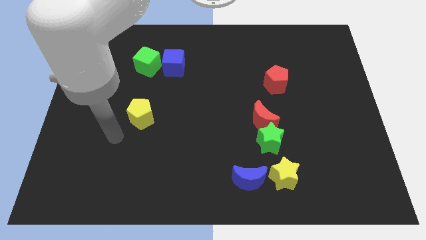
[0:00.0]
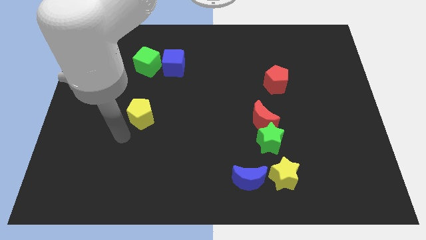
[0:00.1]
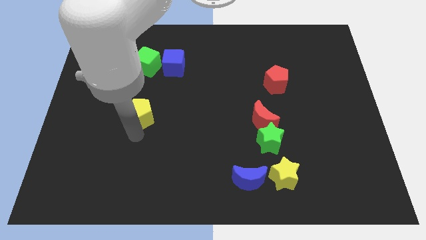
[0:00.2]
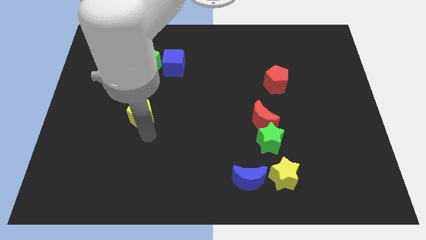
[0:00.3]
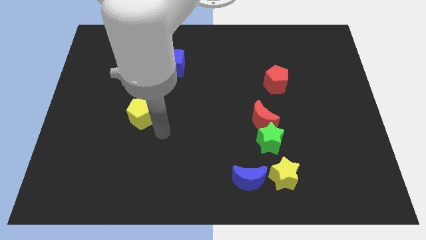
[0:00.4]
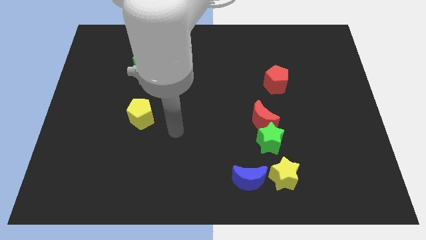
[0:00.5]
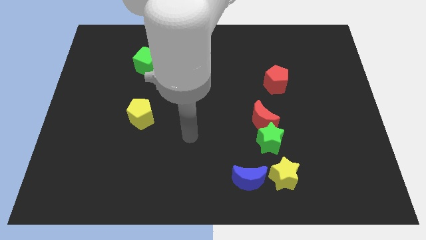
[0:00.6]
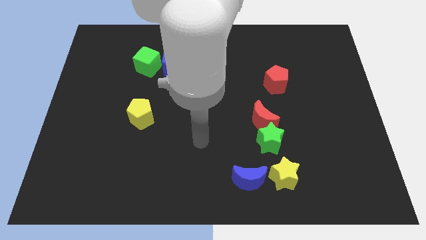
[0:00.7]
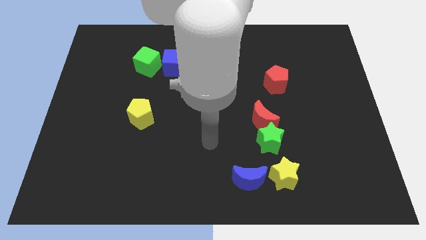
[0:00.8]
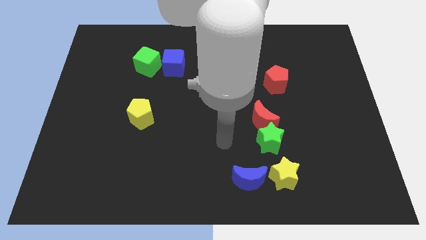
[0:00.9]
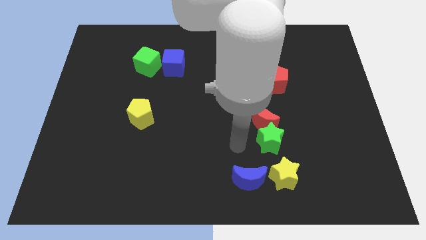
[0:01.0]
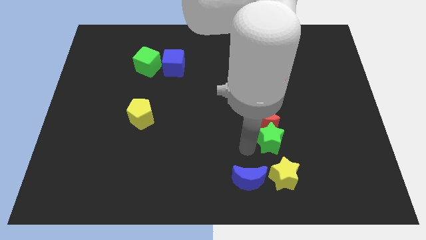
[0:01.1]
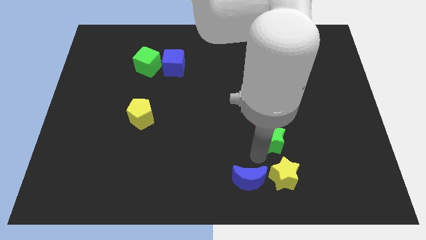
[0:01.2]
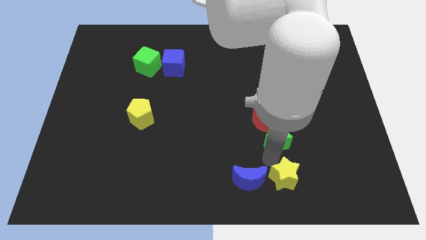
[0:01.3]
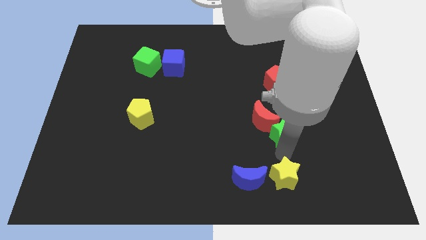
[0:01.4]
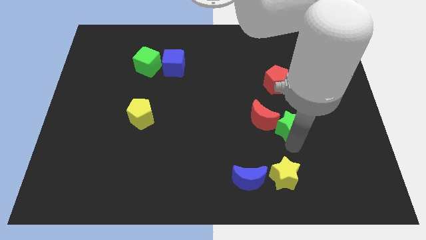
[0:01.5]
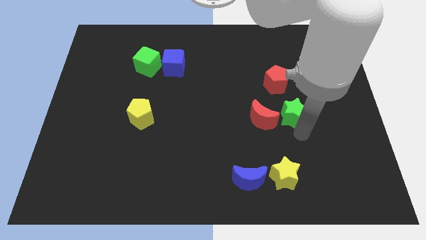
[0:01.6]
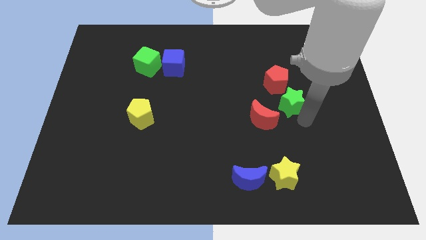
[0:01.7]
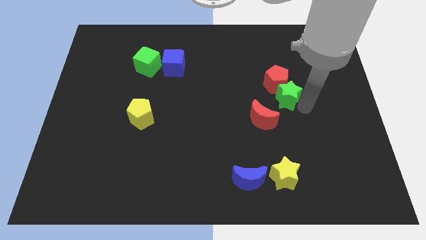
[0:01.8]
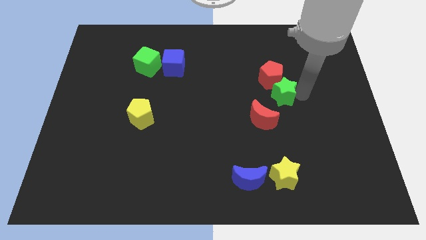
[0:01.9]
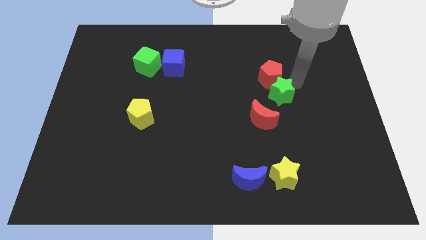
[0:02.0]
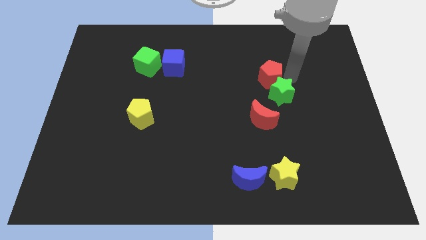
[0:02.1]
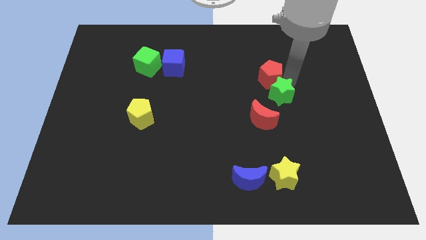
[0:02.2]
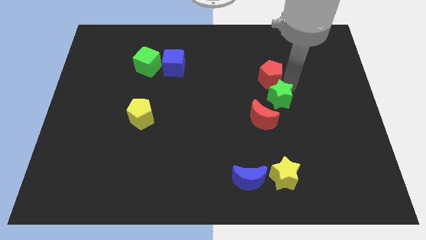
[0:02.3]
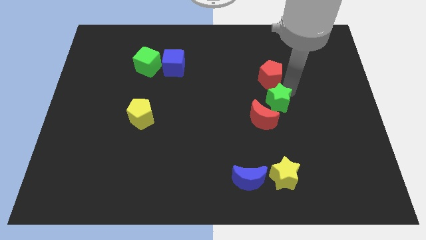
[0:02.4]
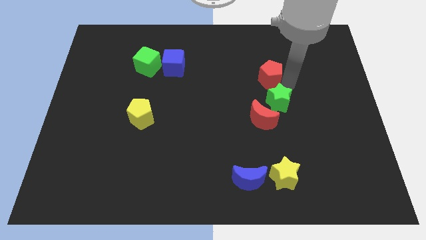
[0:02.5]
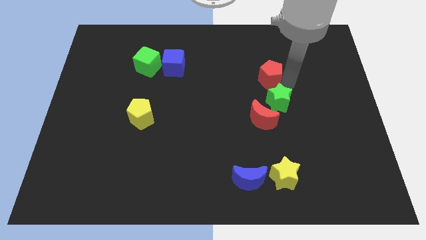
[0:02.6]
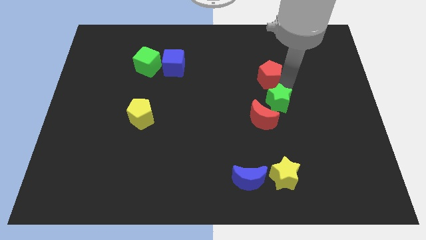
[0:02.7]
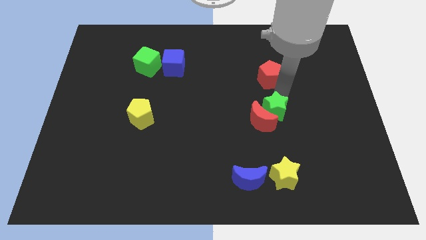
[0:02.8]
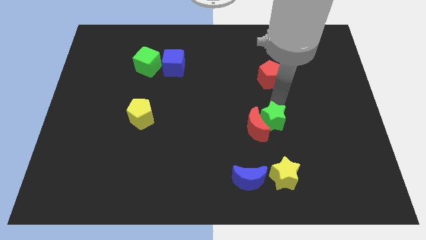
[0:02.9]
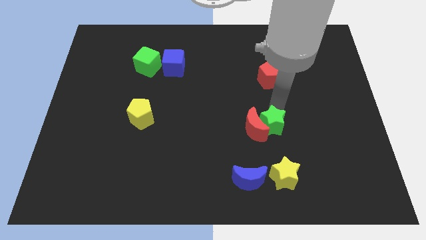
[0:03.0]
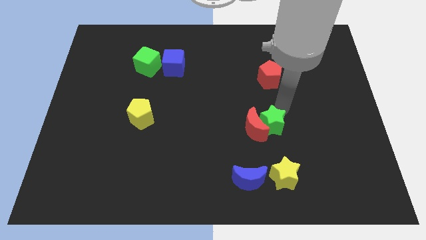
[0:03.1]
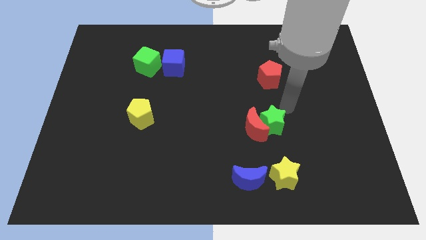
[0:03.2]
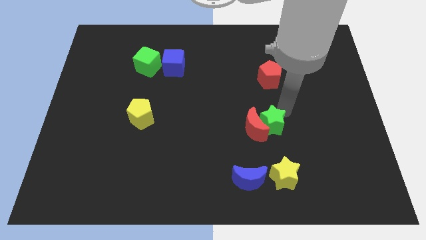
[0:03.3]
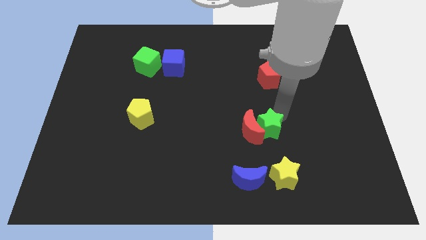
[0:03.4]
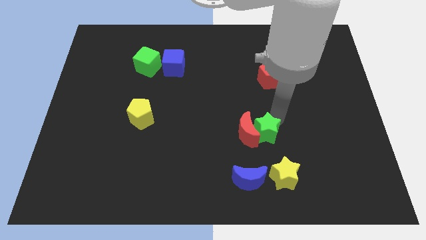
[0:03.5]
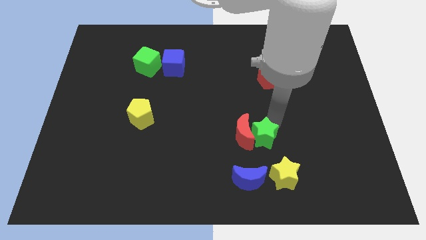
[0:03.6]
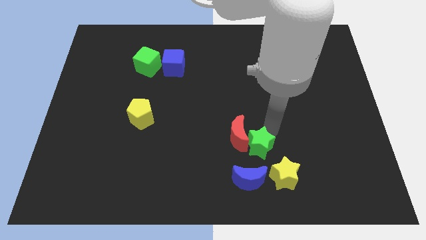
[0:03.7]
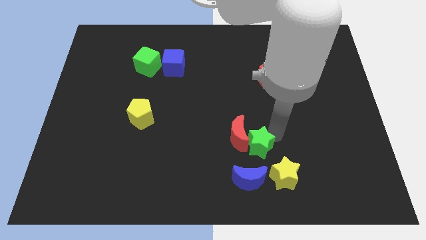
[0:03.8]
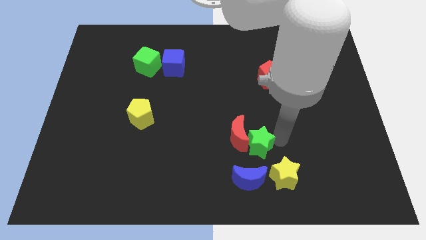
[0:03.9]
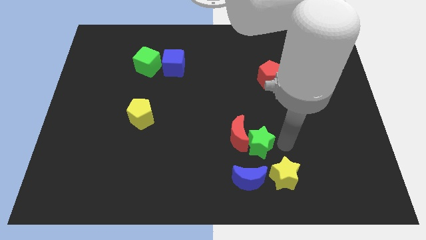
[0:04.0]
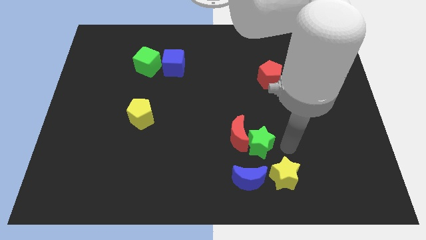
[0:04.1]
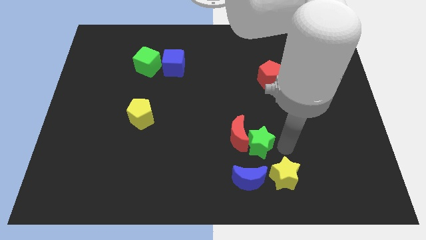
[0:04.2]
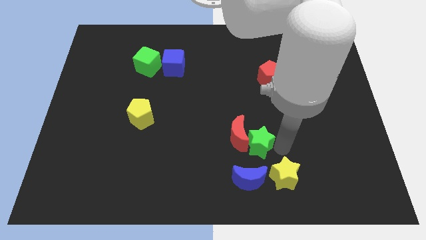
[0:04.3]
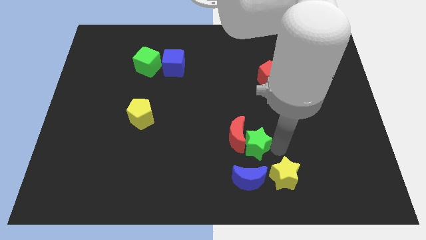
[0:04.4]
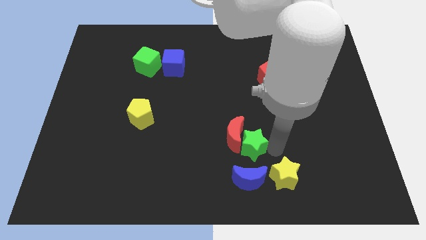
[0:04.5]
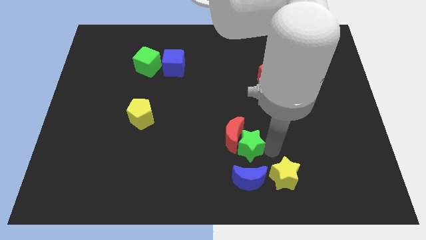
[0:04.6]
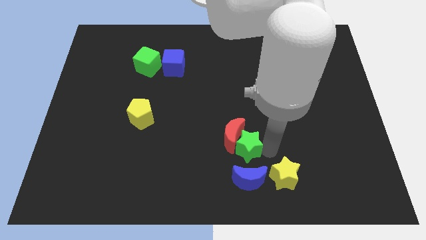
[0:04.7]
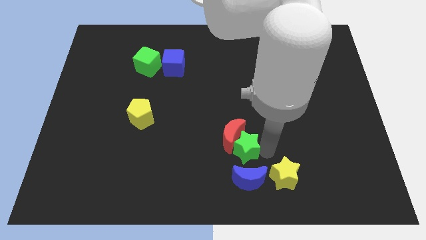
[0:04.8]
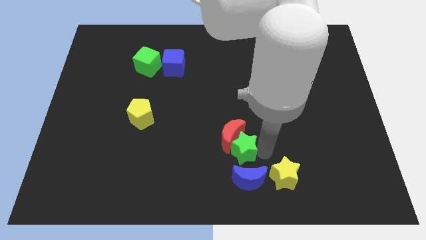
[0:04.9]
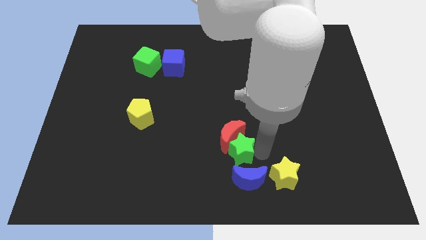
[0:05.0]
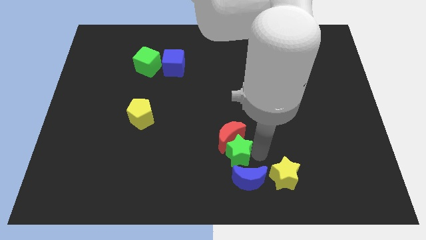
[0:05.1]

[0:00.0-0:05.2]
slide the green star left slightly

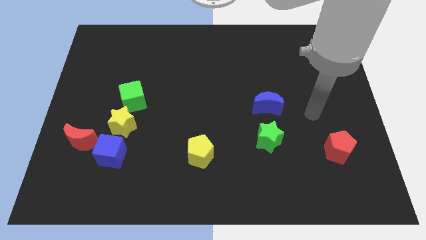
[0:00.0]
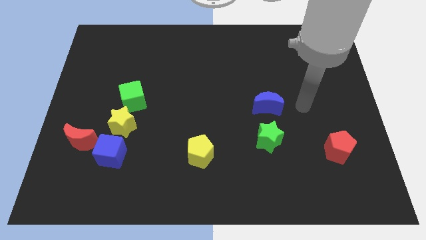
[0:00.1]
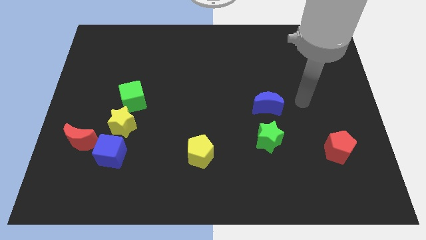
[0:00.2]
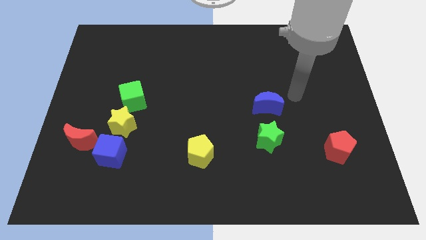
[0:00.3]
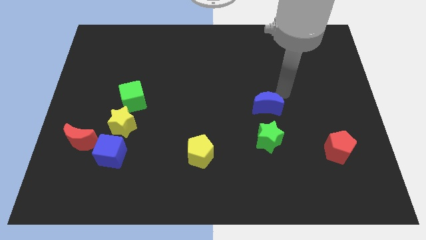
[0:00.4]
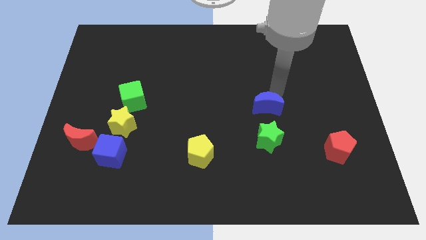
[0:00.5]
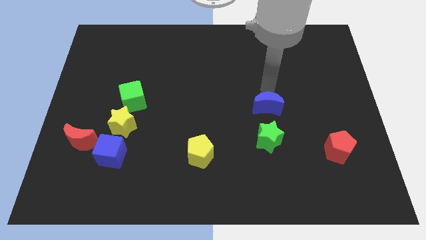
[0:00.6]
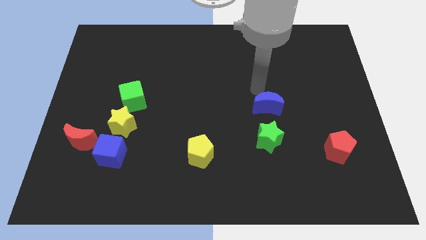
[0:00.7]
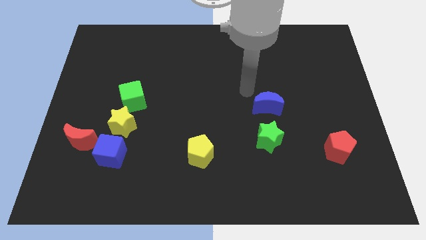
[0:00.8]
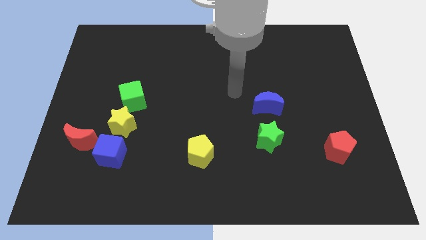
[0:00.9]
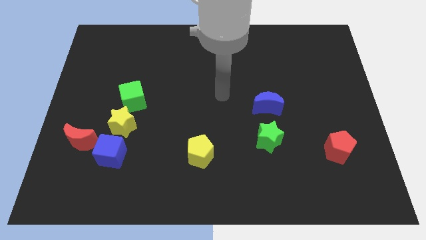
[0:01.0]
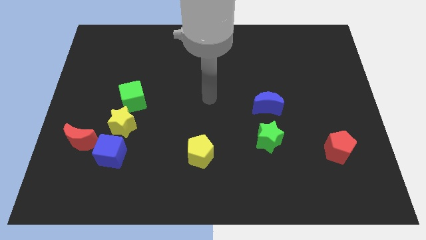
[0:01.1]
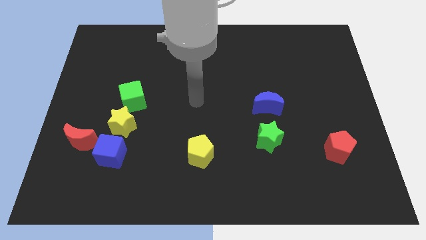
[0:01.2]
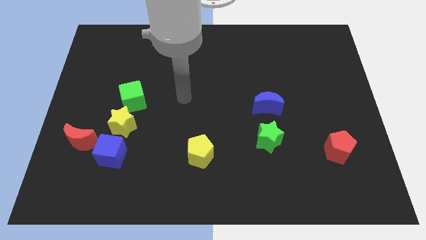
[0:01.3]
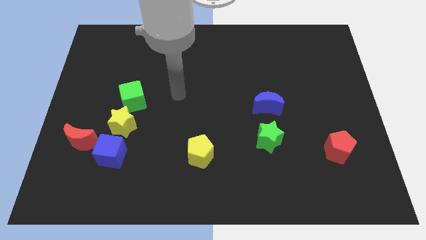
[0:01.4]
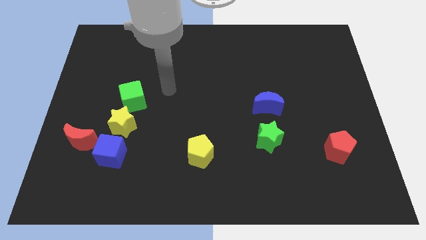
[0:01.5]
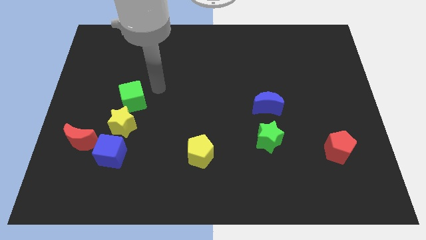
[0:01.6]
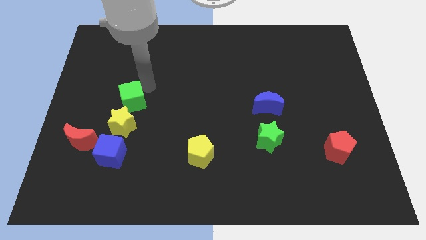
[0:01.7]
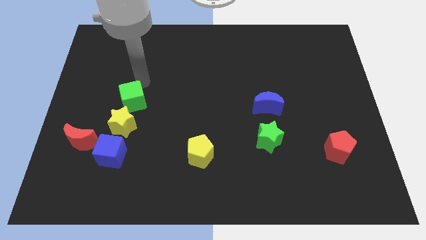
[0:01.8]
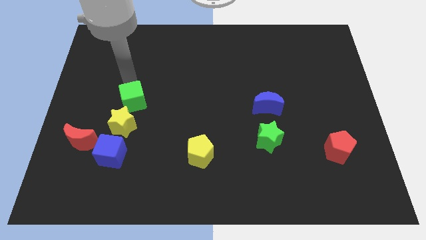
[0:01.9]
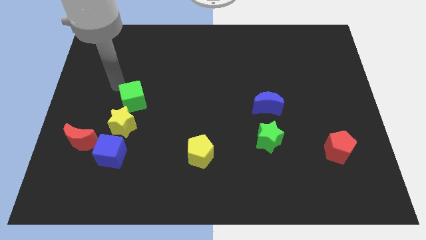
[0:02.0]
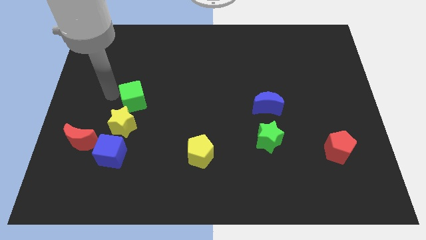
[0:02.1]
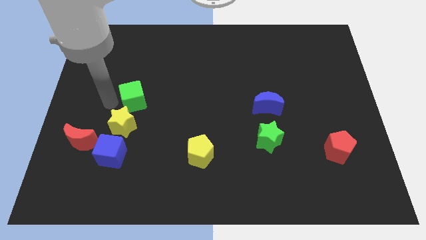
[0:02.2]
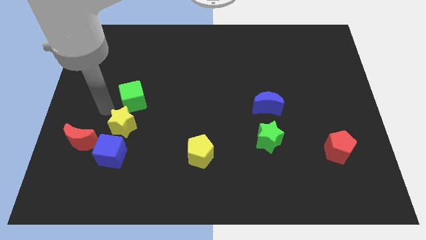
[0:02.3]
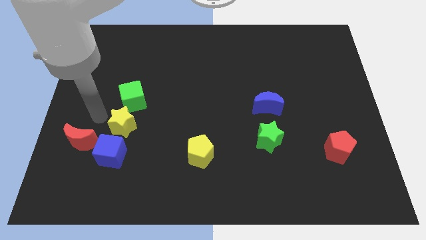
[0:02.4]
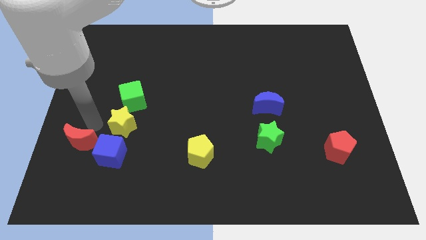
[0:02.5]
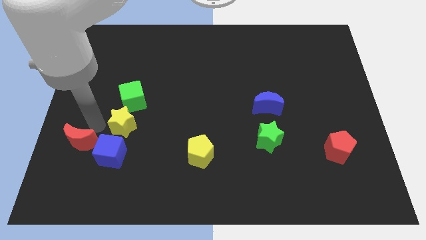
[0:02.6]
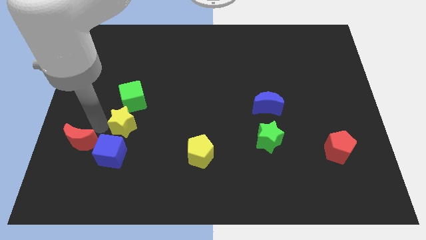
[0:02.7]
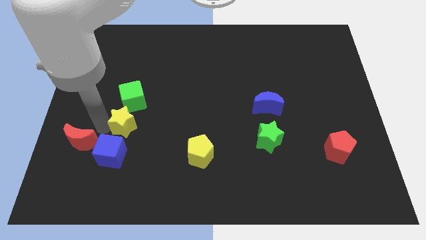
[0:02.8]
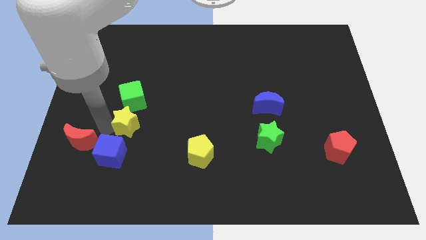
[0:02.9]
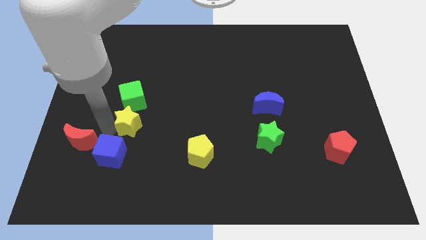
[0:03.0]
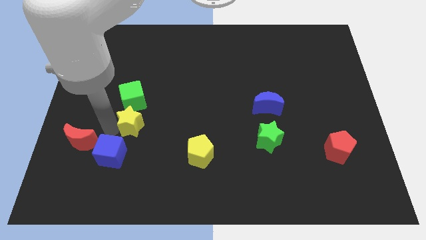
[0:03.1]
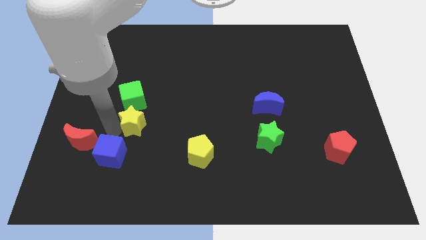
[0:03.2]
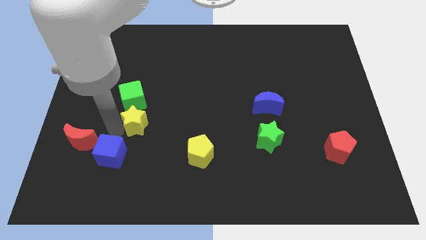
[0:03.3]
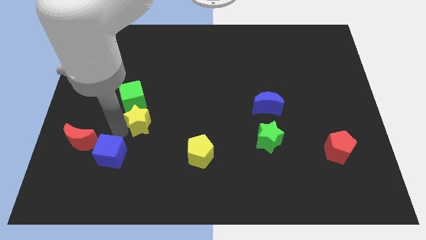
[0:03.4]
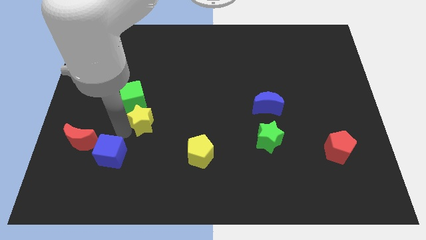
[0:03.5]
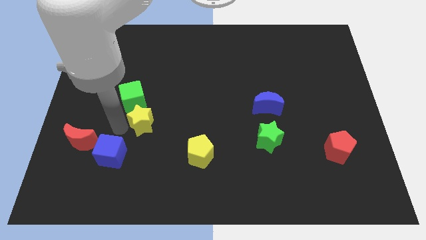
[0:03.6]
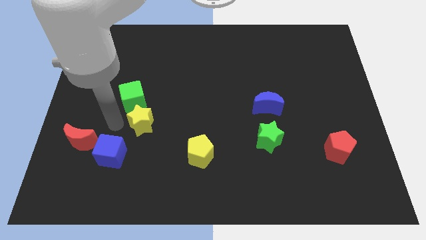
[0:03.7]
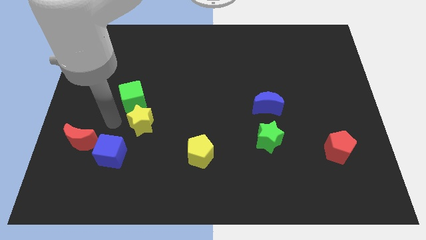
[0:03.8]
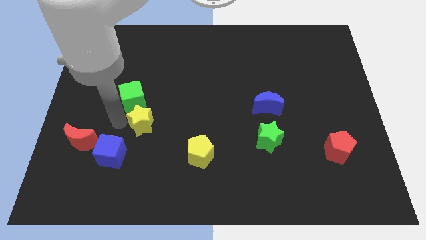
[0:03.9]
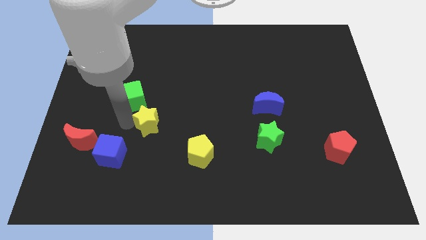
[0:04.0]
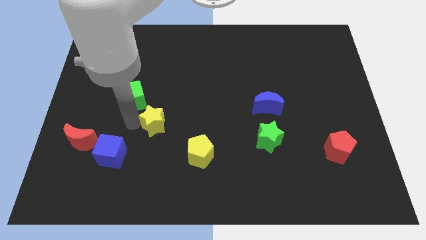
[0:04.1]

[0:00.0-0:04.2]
slightly push the yellow star right
